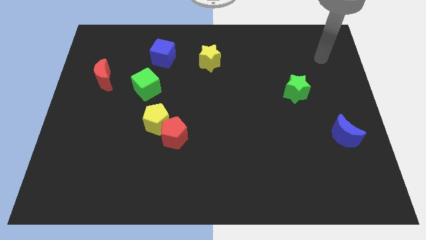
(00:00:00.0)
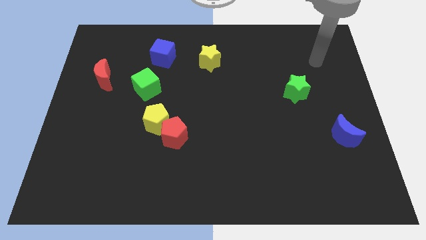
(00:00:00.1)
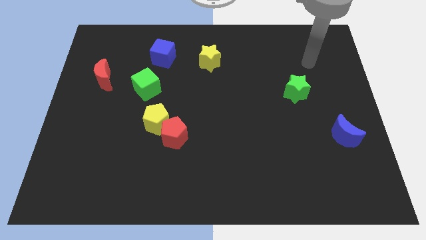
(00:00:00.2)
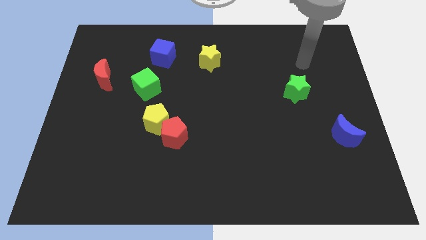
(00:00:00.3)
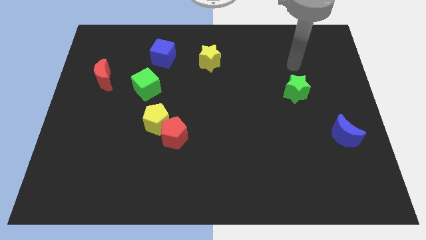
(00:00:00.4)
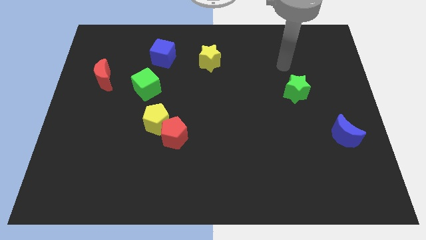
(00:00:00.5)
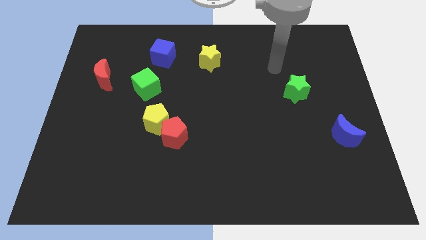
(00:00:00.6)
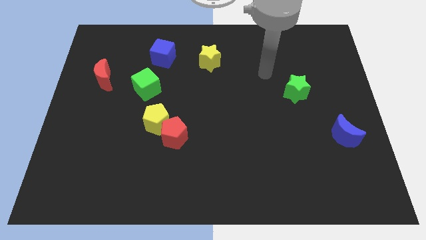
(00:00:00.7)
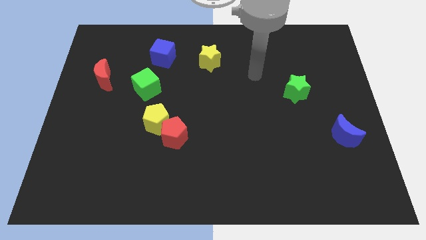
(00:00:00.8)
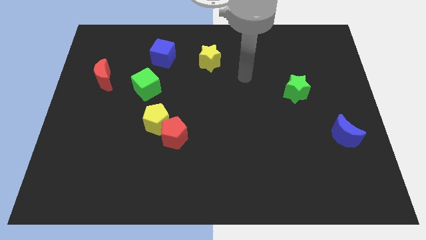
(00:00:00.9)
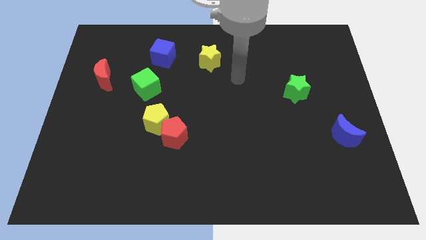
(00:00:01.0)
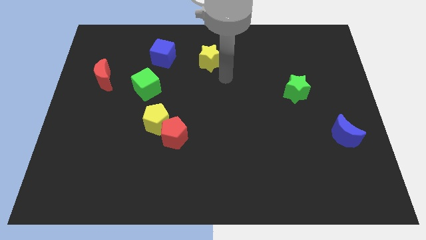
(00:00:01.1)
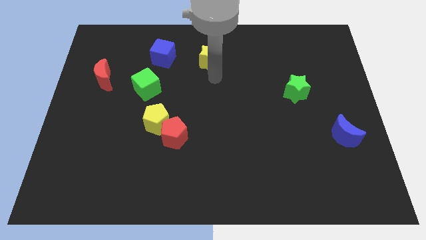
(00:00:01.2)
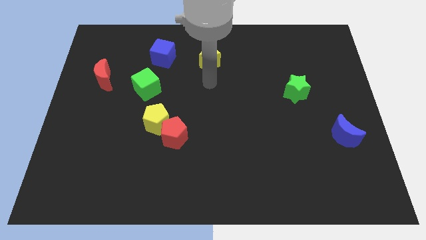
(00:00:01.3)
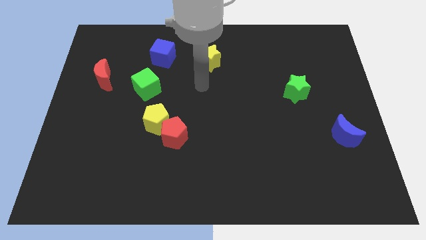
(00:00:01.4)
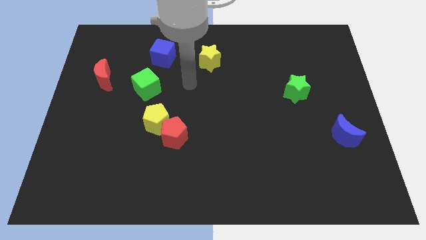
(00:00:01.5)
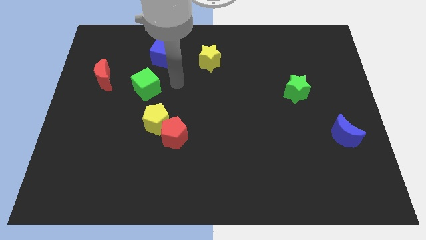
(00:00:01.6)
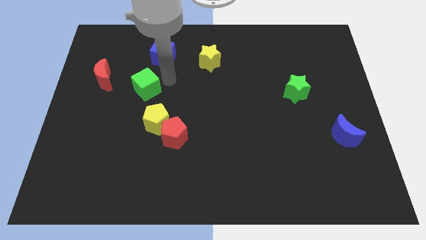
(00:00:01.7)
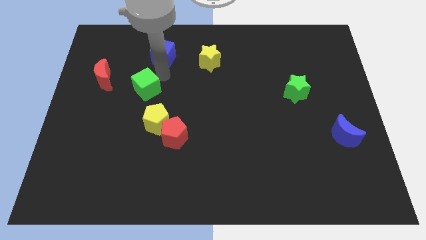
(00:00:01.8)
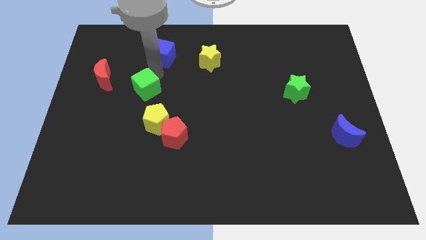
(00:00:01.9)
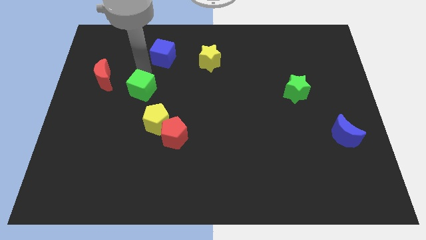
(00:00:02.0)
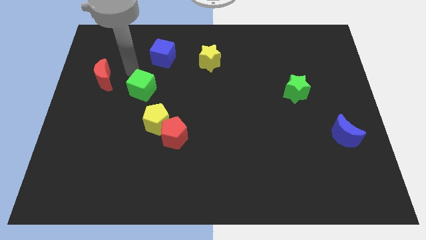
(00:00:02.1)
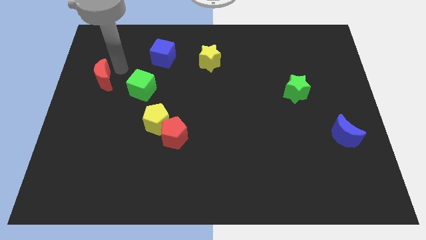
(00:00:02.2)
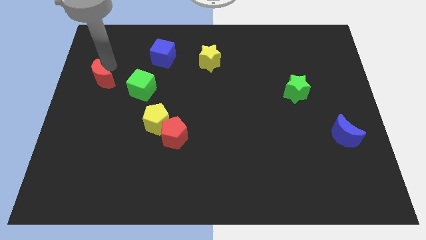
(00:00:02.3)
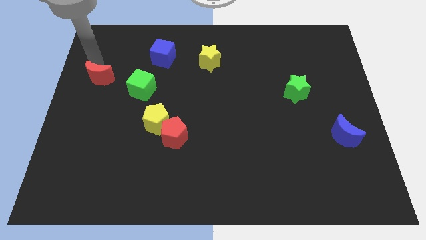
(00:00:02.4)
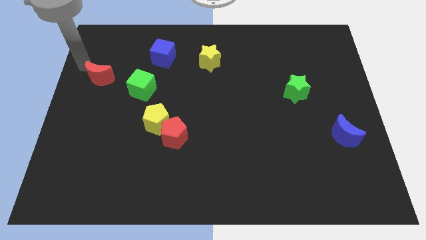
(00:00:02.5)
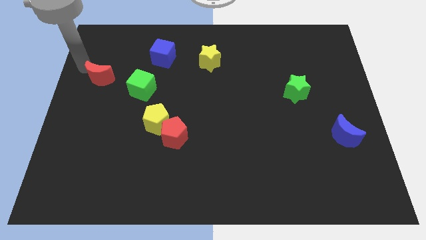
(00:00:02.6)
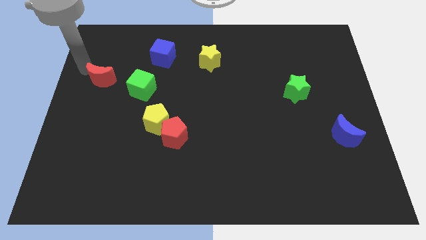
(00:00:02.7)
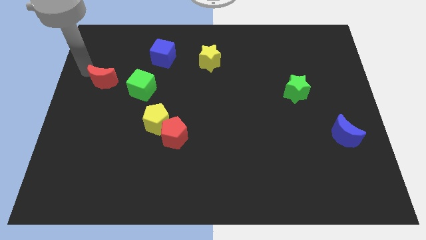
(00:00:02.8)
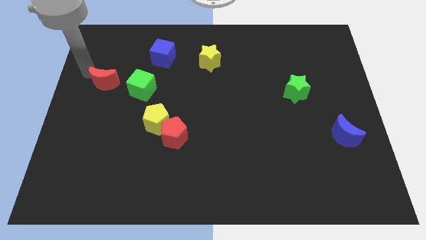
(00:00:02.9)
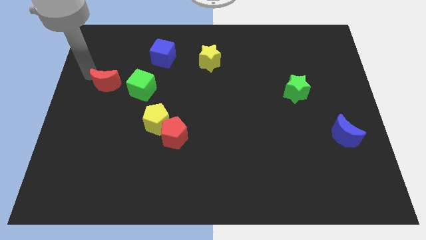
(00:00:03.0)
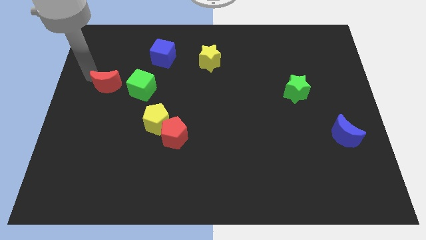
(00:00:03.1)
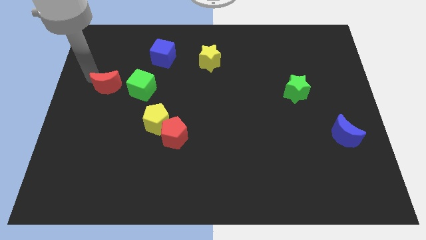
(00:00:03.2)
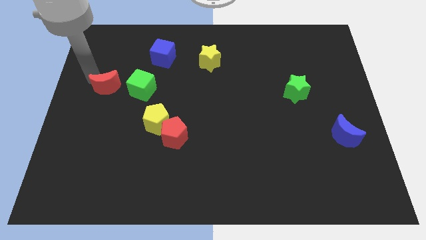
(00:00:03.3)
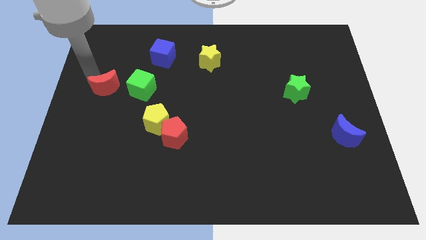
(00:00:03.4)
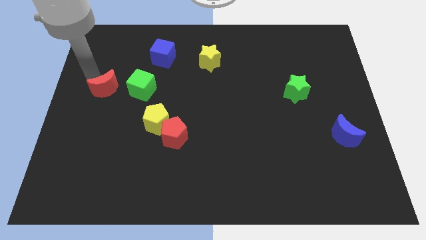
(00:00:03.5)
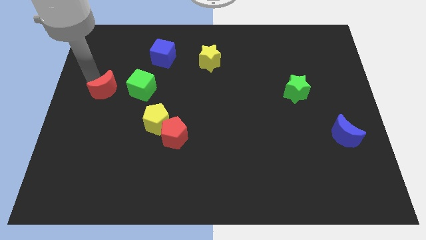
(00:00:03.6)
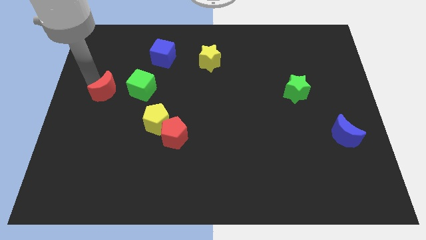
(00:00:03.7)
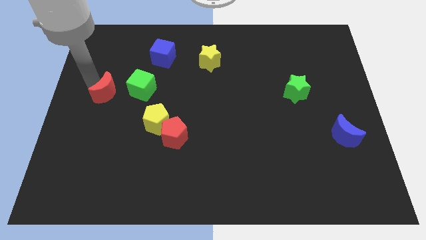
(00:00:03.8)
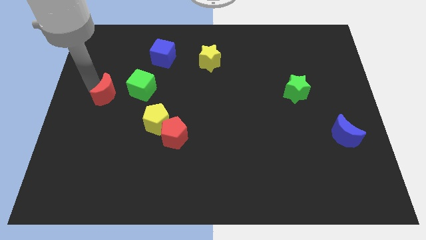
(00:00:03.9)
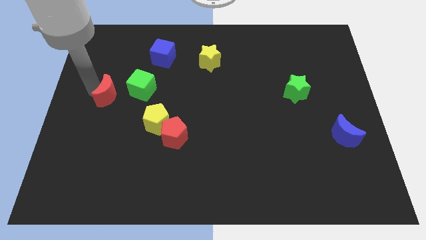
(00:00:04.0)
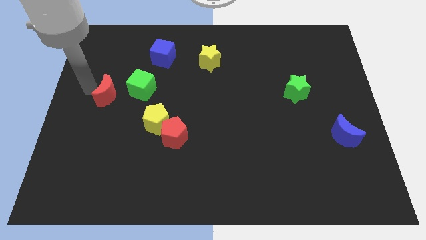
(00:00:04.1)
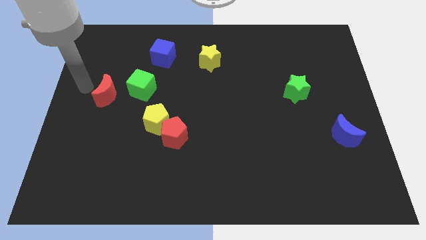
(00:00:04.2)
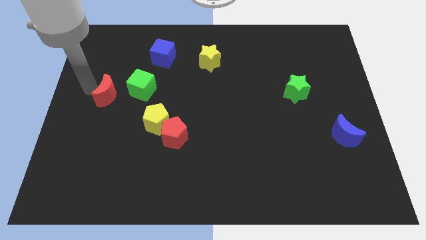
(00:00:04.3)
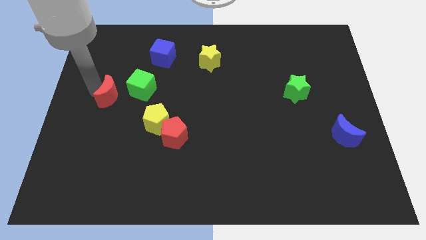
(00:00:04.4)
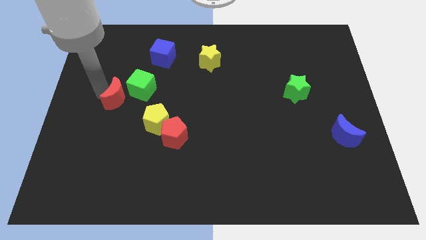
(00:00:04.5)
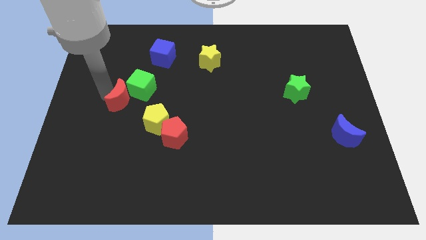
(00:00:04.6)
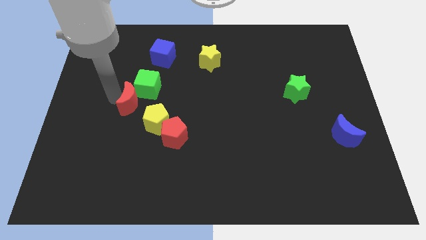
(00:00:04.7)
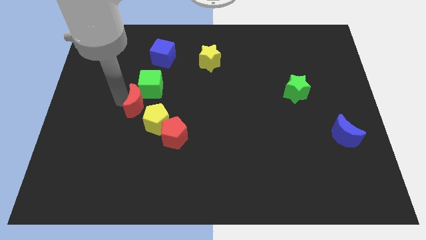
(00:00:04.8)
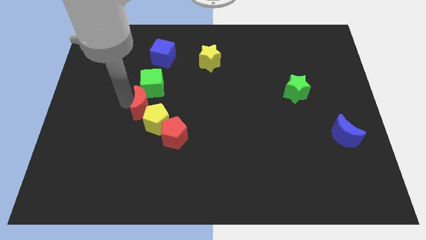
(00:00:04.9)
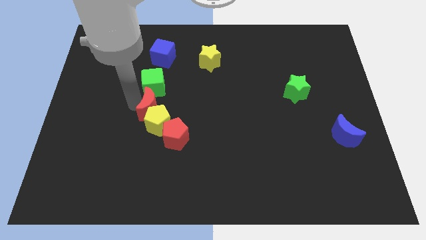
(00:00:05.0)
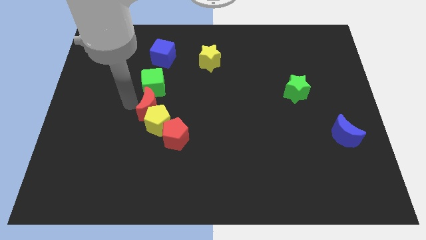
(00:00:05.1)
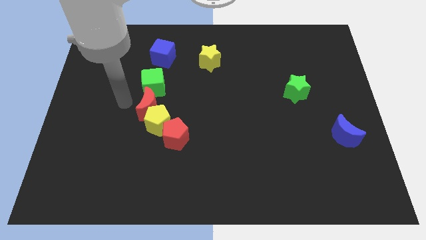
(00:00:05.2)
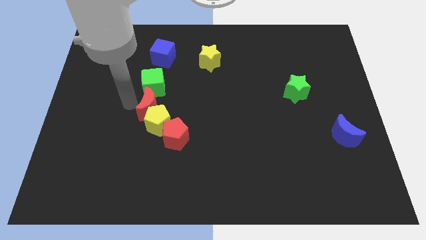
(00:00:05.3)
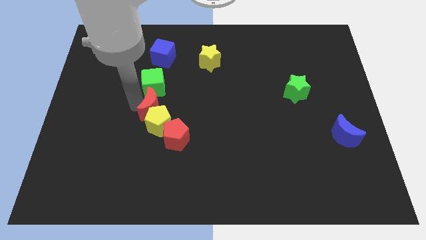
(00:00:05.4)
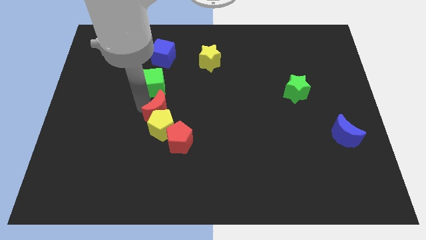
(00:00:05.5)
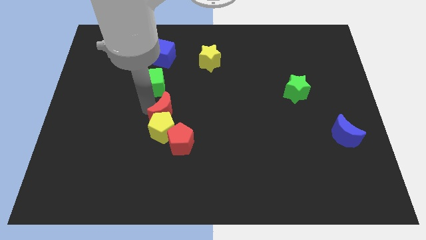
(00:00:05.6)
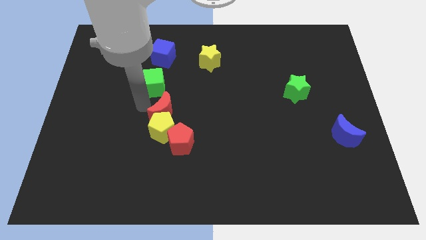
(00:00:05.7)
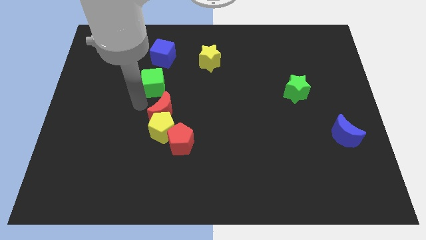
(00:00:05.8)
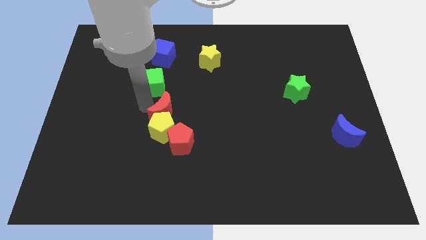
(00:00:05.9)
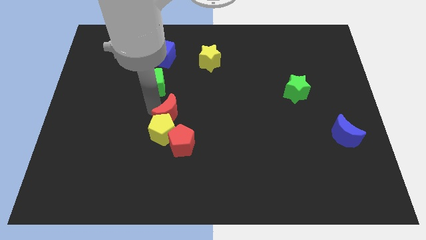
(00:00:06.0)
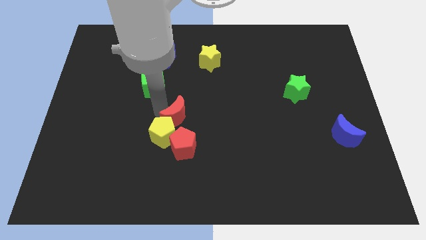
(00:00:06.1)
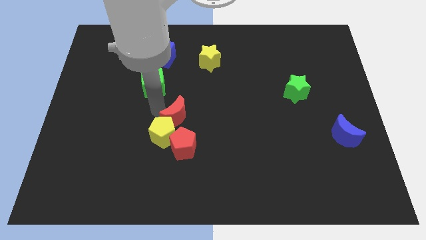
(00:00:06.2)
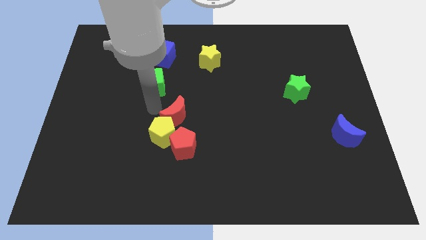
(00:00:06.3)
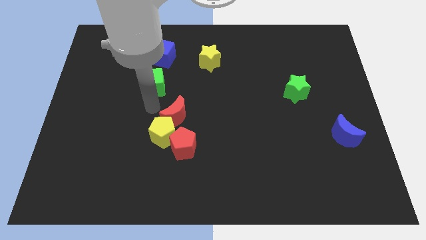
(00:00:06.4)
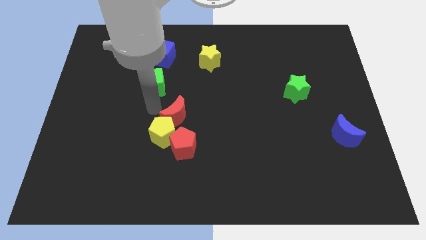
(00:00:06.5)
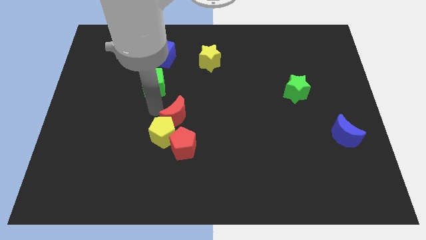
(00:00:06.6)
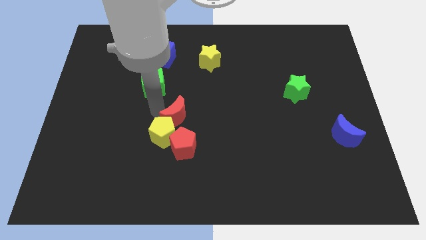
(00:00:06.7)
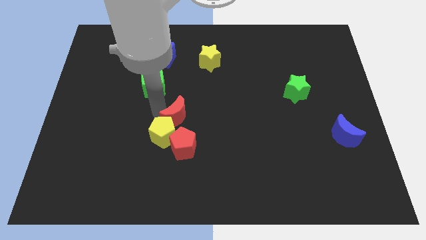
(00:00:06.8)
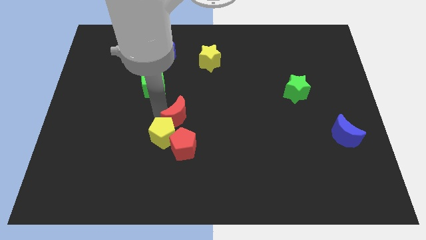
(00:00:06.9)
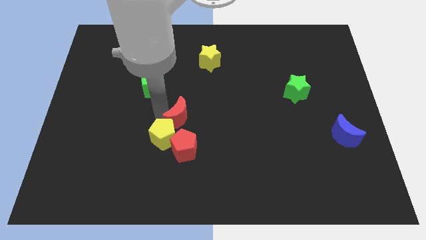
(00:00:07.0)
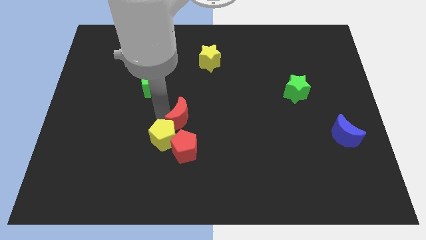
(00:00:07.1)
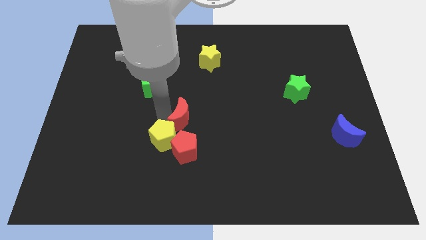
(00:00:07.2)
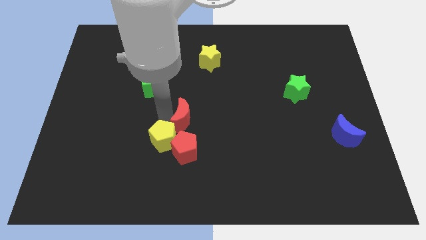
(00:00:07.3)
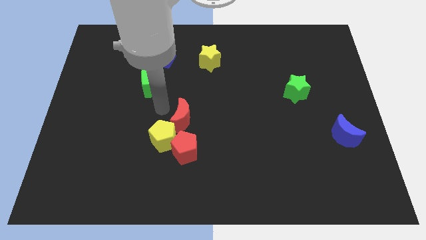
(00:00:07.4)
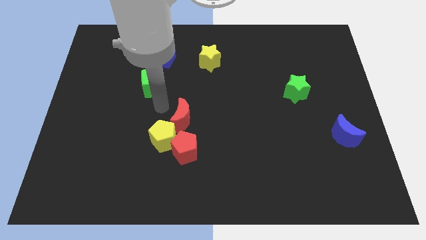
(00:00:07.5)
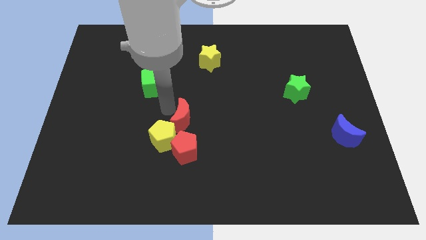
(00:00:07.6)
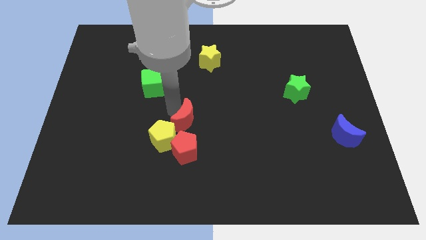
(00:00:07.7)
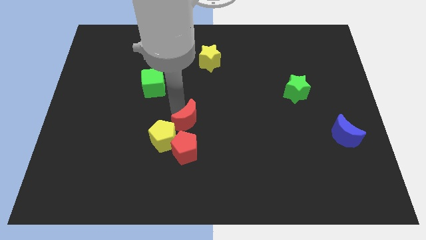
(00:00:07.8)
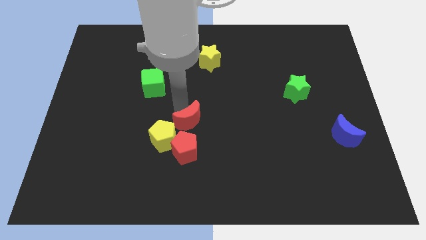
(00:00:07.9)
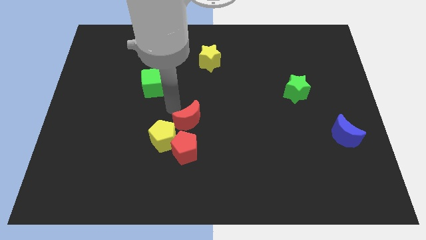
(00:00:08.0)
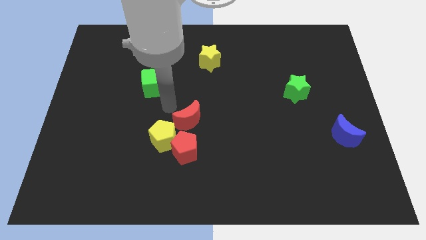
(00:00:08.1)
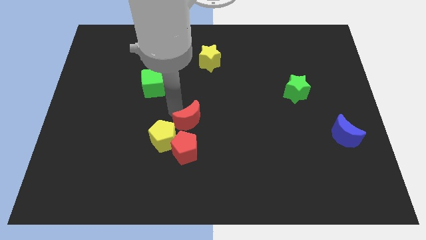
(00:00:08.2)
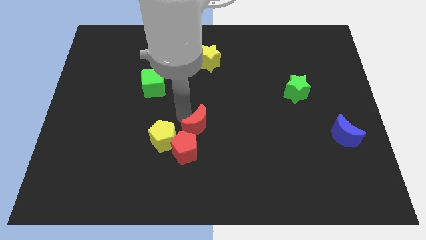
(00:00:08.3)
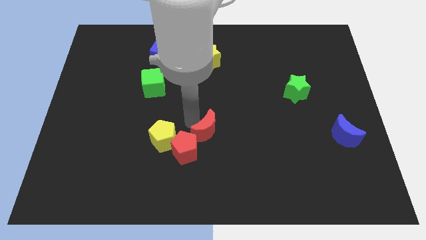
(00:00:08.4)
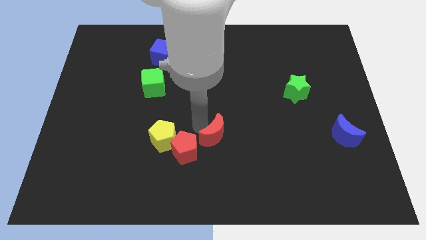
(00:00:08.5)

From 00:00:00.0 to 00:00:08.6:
move the red moon to the right side of the red pentagon

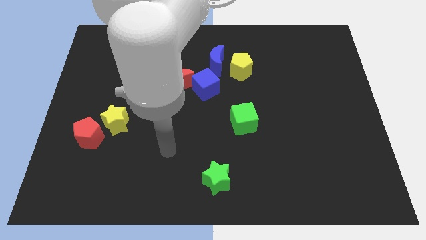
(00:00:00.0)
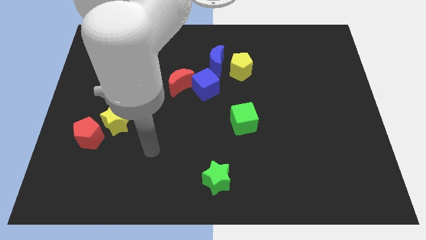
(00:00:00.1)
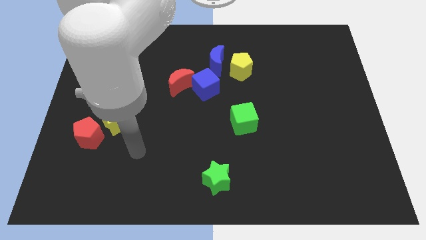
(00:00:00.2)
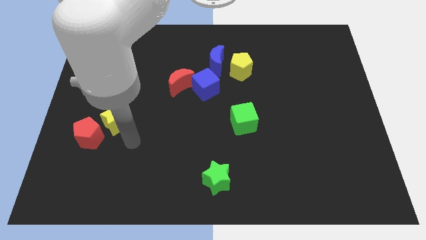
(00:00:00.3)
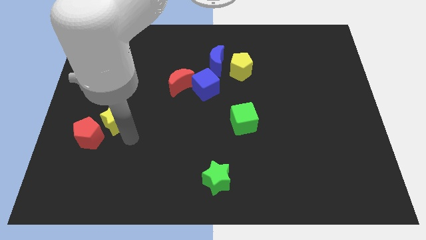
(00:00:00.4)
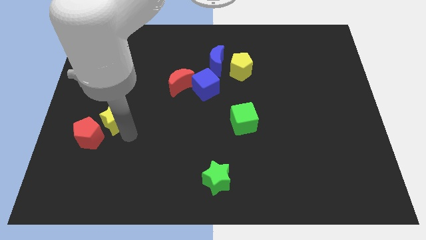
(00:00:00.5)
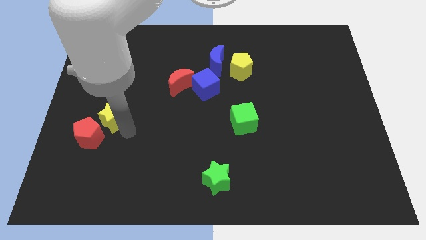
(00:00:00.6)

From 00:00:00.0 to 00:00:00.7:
move the yellow star above the red pentagon
